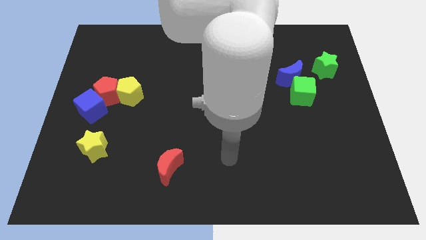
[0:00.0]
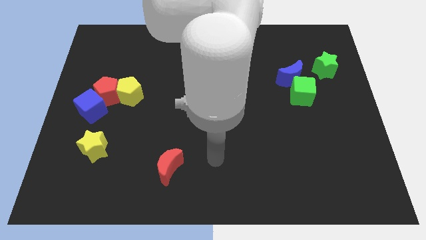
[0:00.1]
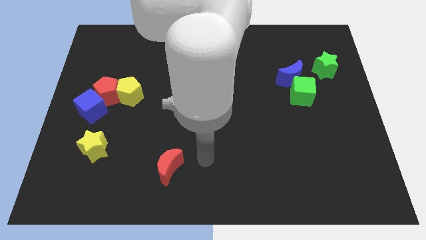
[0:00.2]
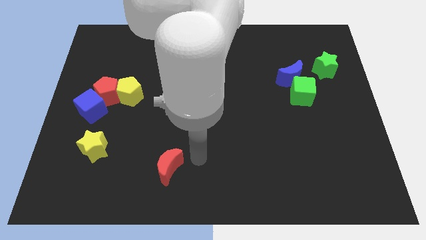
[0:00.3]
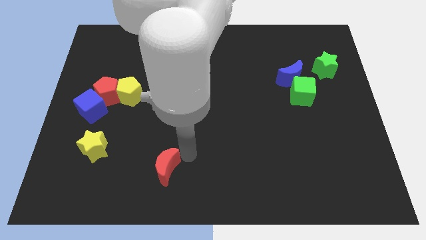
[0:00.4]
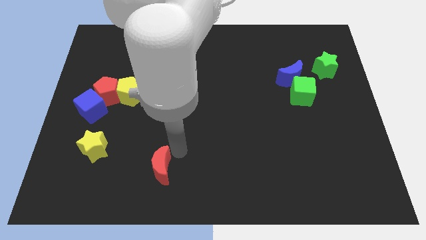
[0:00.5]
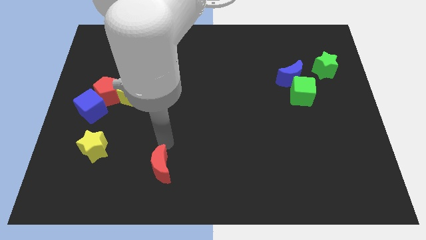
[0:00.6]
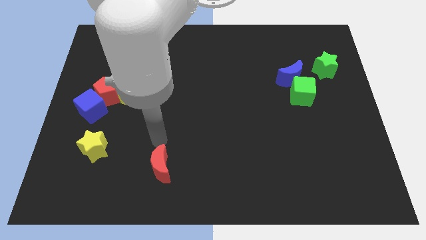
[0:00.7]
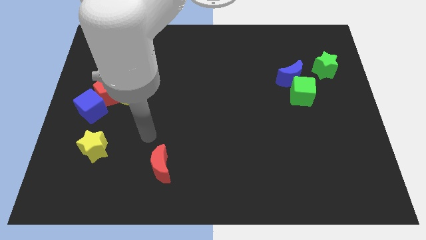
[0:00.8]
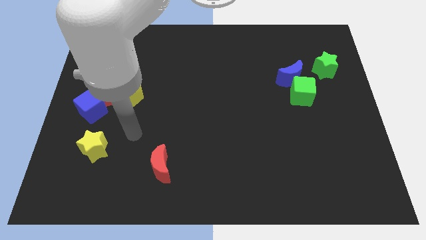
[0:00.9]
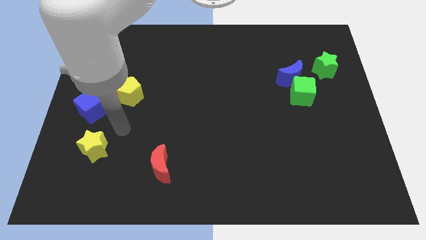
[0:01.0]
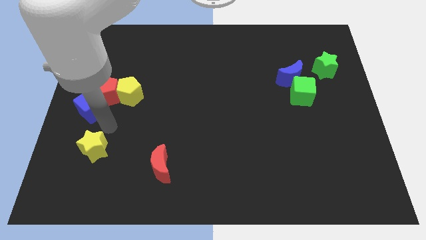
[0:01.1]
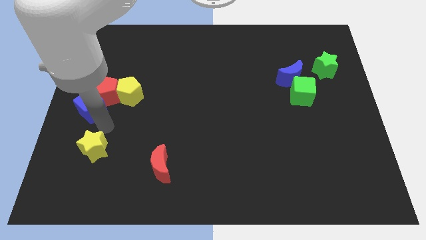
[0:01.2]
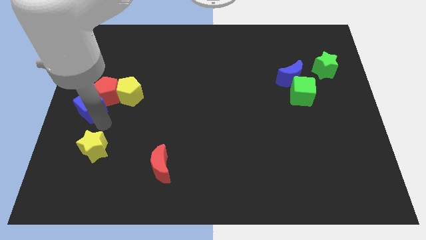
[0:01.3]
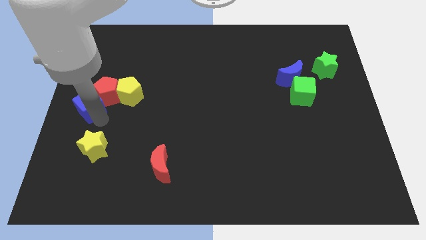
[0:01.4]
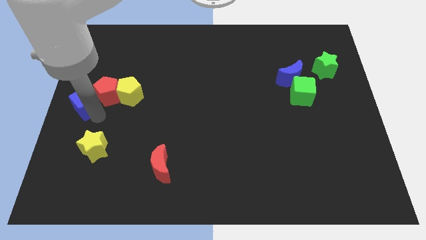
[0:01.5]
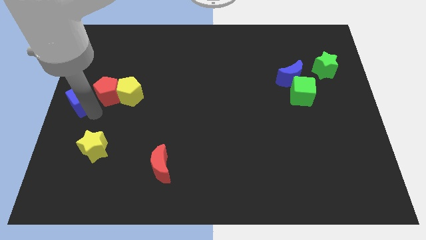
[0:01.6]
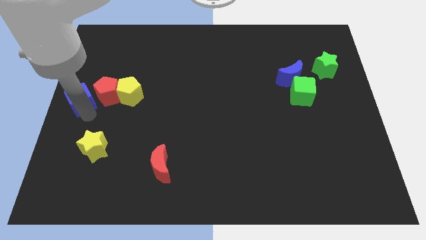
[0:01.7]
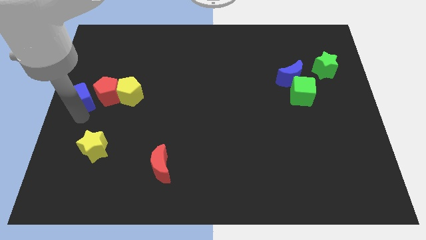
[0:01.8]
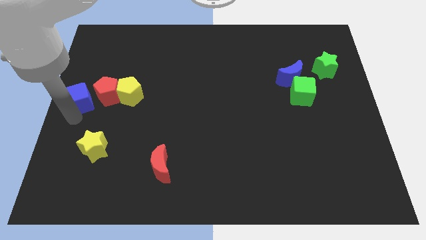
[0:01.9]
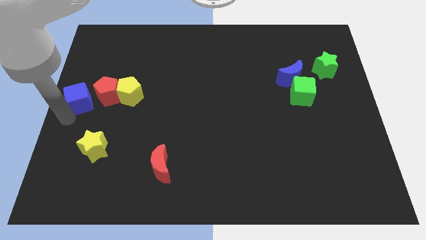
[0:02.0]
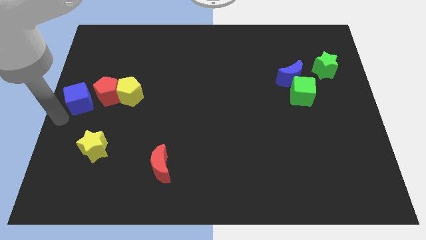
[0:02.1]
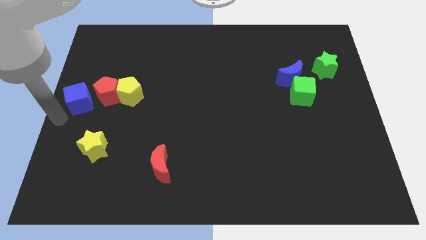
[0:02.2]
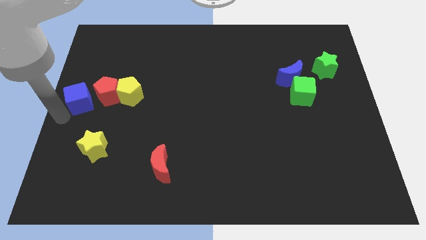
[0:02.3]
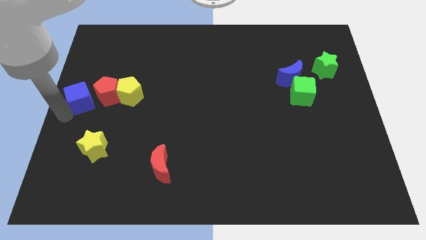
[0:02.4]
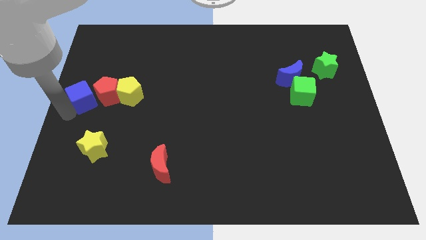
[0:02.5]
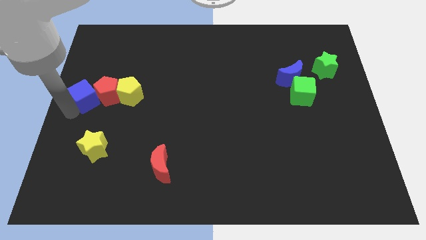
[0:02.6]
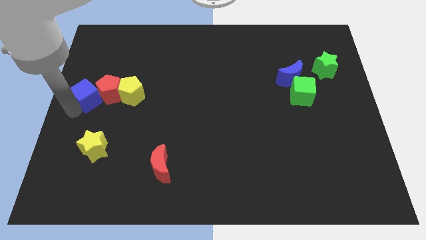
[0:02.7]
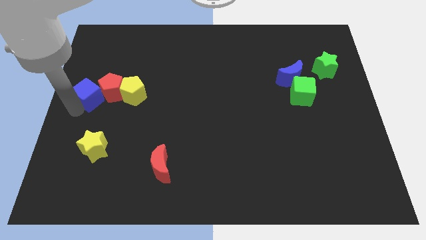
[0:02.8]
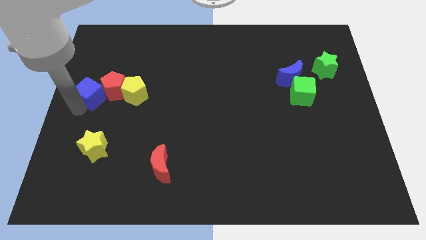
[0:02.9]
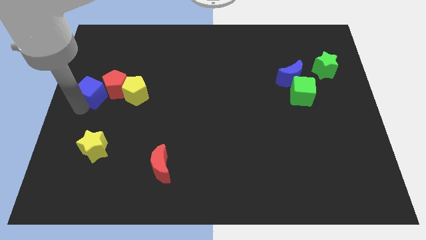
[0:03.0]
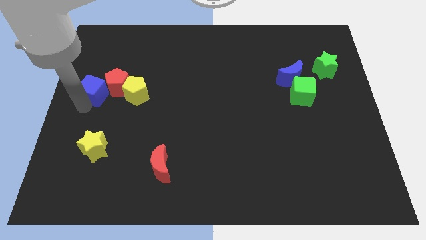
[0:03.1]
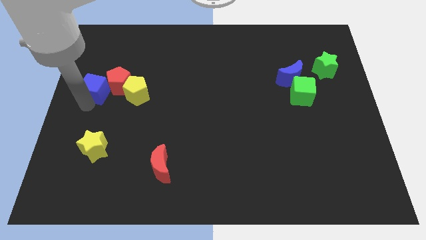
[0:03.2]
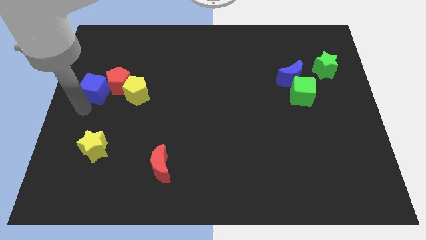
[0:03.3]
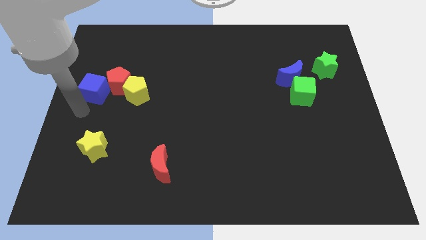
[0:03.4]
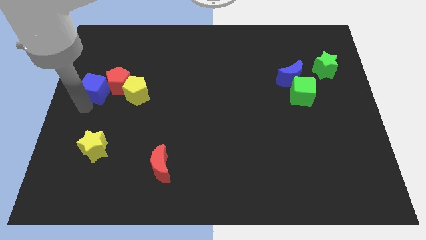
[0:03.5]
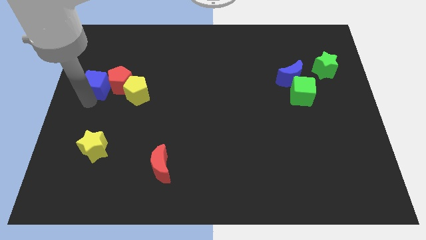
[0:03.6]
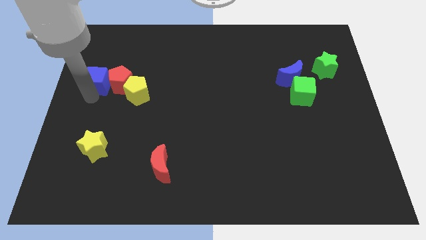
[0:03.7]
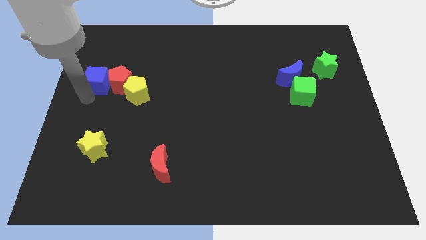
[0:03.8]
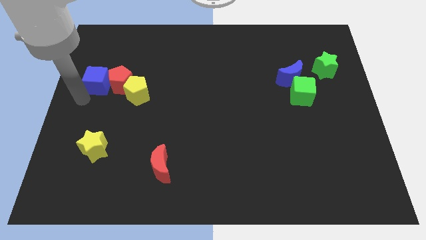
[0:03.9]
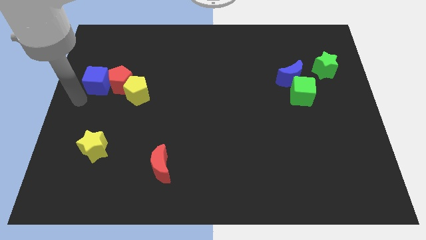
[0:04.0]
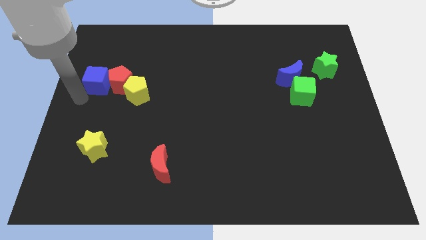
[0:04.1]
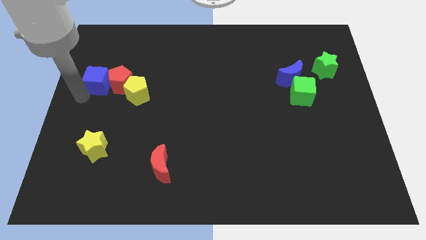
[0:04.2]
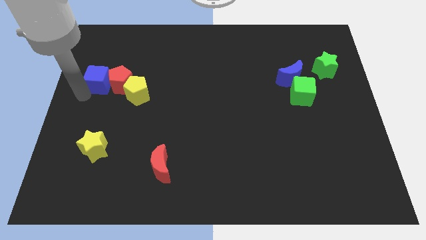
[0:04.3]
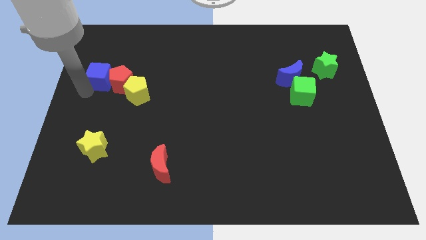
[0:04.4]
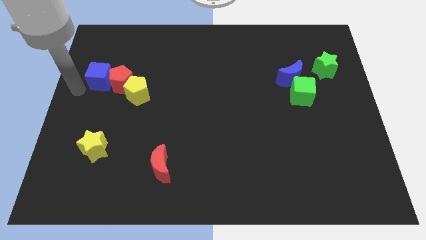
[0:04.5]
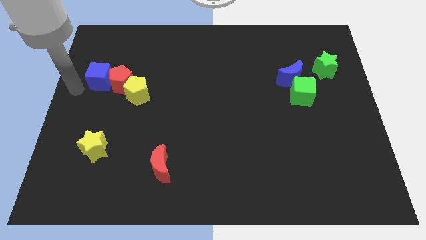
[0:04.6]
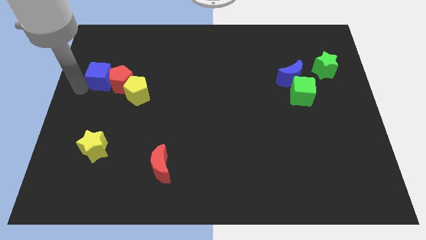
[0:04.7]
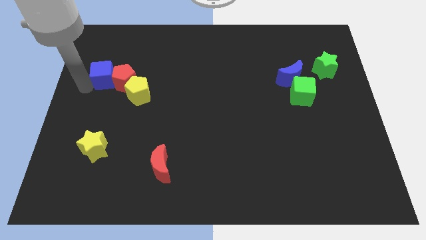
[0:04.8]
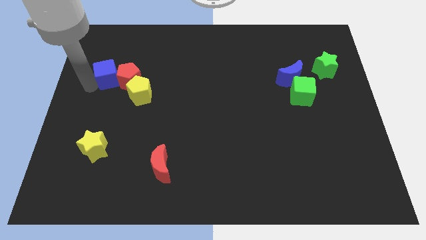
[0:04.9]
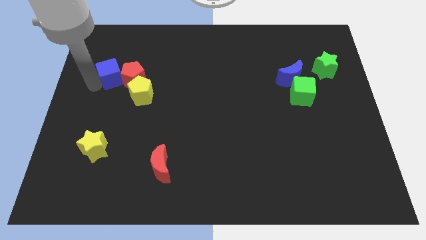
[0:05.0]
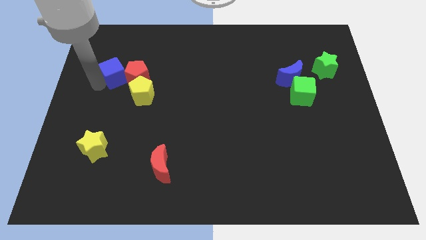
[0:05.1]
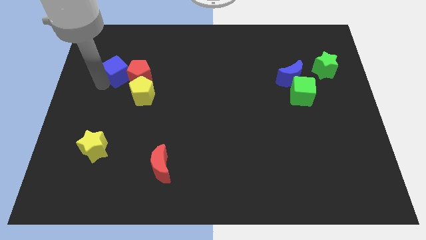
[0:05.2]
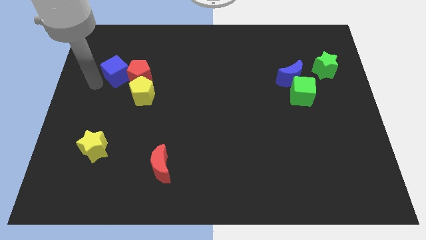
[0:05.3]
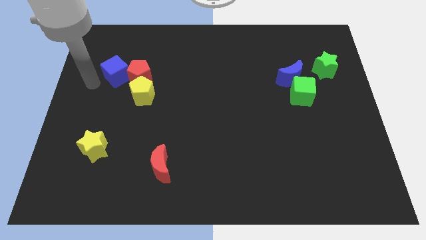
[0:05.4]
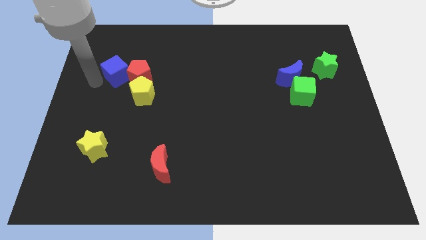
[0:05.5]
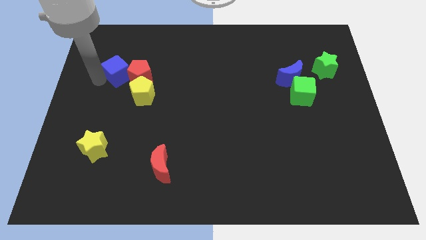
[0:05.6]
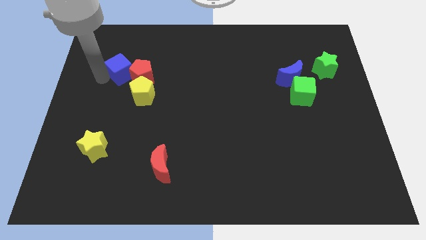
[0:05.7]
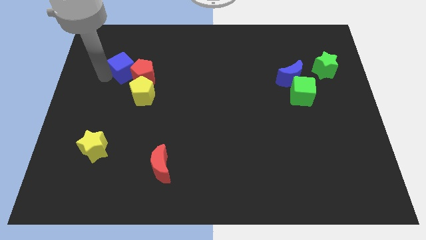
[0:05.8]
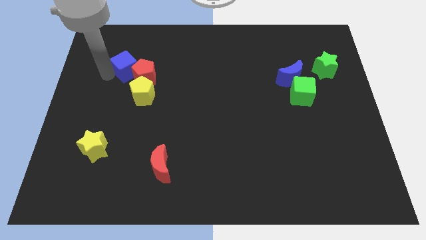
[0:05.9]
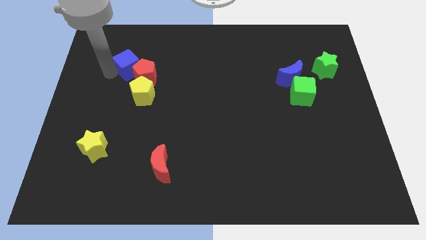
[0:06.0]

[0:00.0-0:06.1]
push the blue cube to the top side of the yellow pentagon
